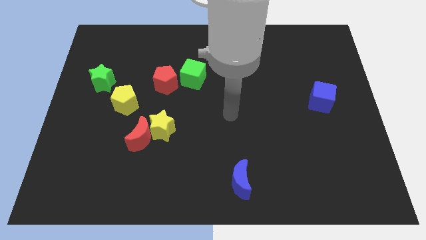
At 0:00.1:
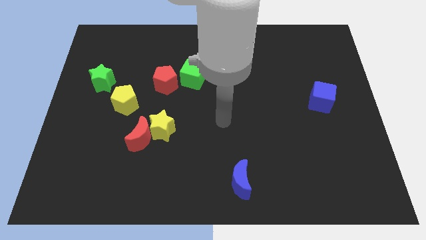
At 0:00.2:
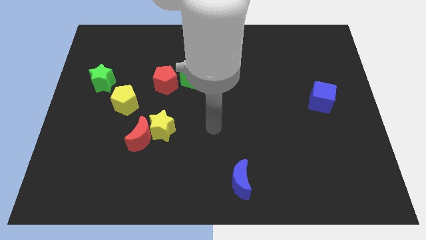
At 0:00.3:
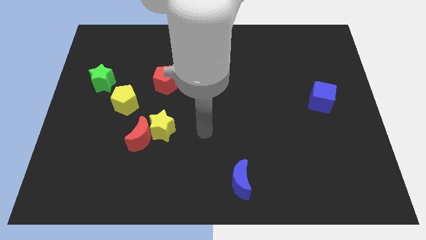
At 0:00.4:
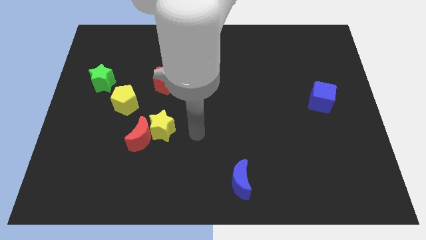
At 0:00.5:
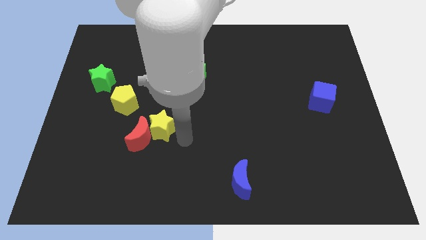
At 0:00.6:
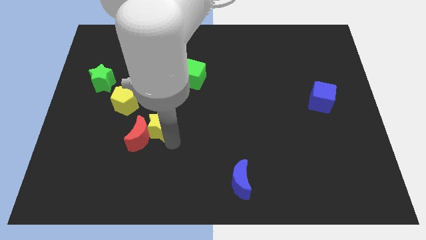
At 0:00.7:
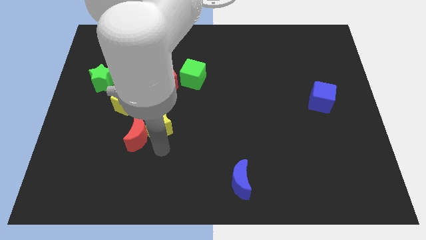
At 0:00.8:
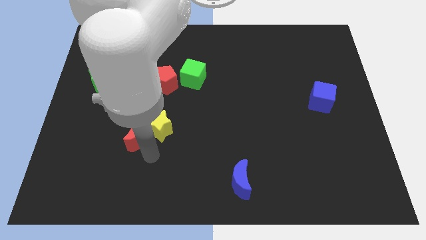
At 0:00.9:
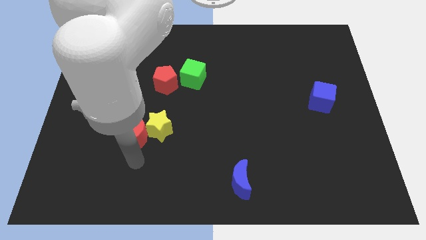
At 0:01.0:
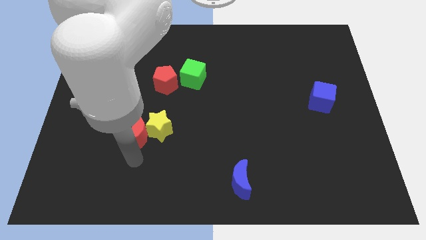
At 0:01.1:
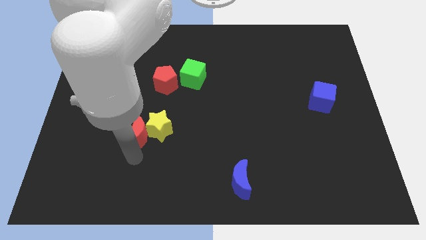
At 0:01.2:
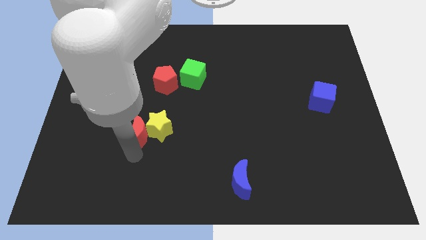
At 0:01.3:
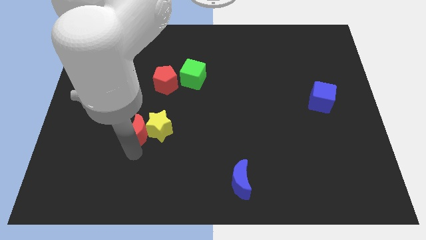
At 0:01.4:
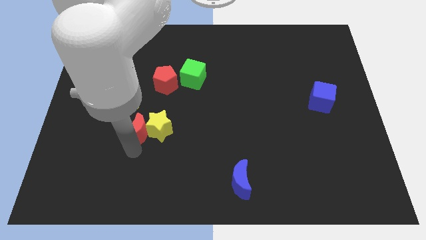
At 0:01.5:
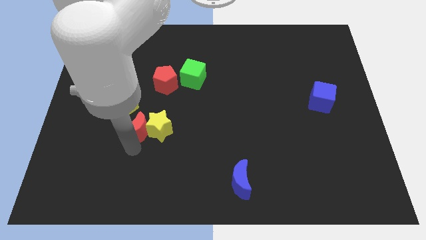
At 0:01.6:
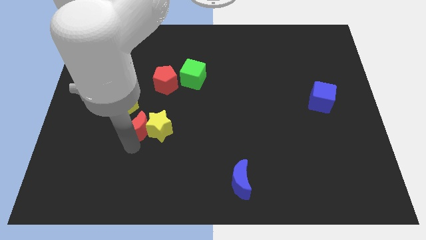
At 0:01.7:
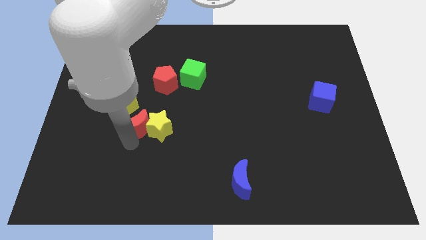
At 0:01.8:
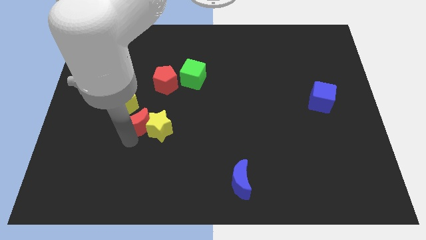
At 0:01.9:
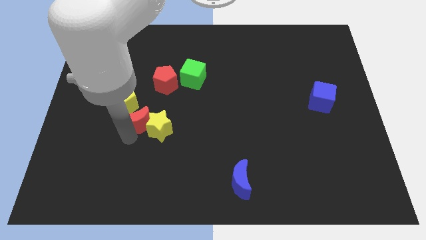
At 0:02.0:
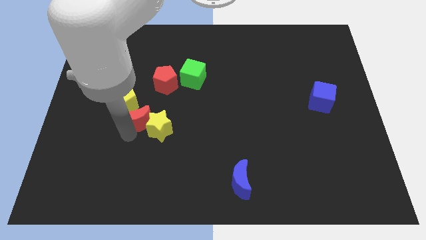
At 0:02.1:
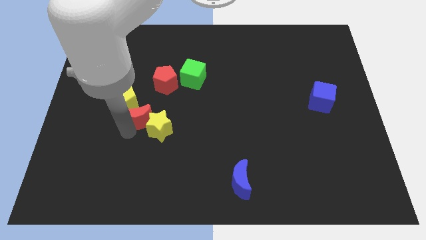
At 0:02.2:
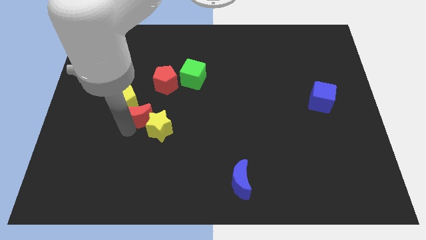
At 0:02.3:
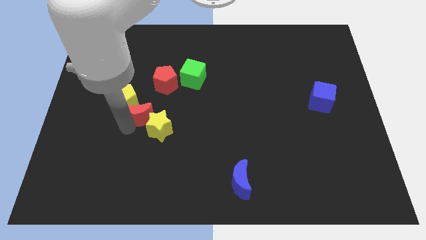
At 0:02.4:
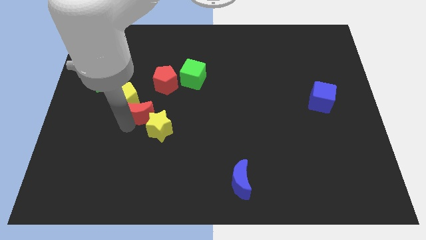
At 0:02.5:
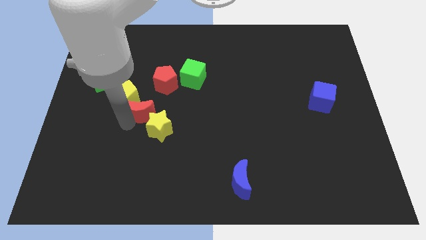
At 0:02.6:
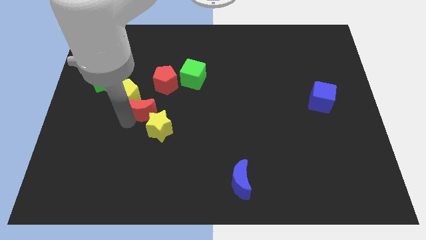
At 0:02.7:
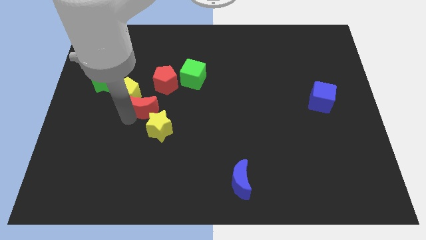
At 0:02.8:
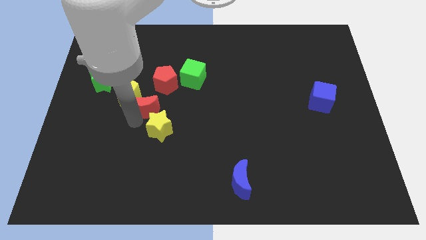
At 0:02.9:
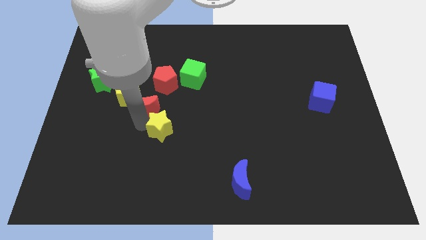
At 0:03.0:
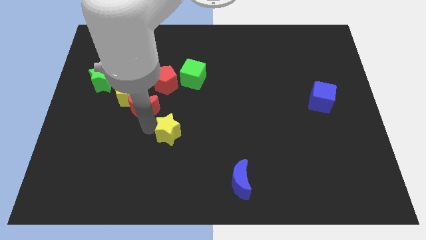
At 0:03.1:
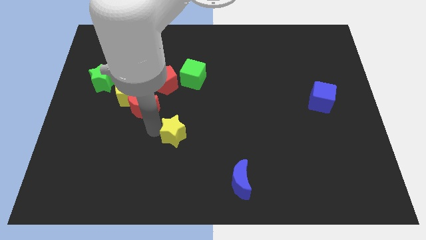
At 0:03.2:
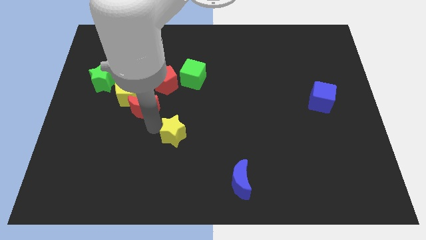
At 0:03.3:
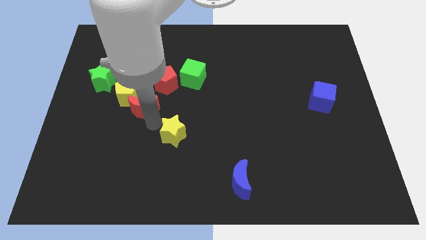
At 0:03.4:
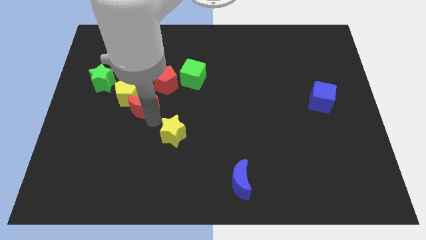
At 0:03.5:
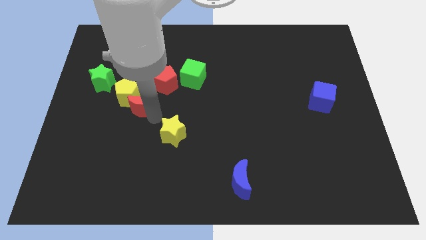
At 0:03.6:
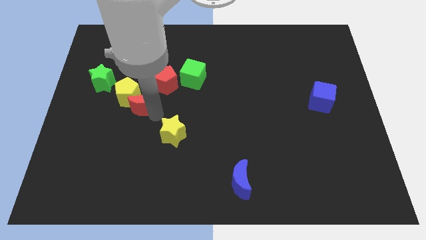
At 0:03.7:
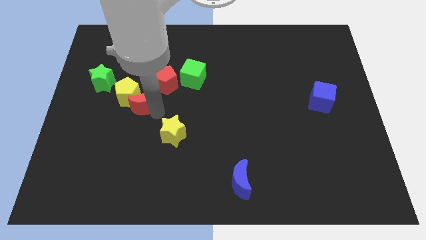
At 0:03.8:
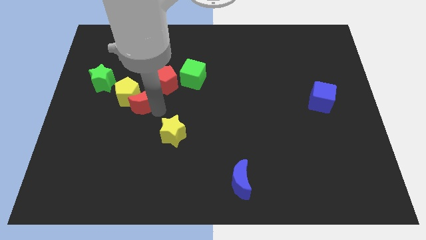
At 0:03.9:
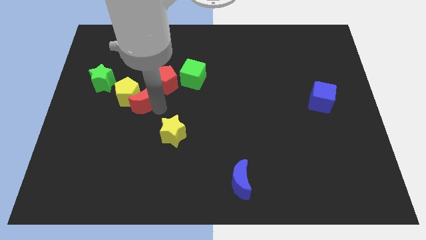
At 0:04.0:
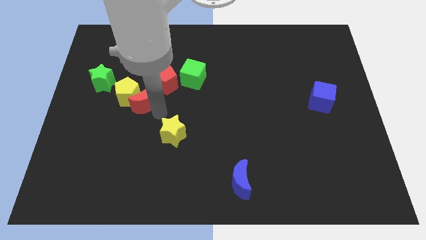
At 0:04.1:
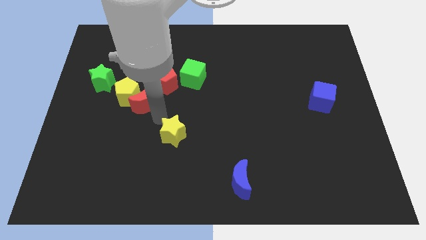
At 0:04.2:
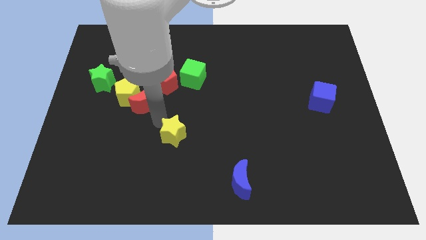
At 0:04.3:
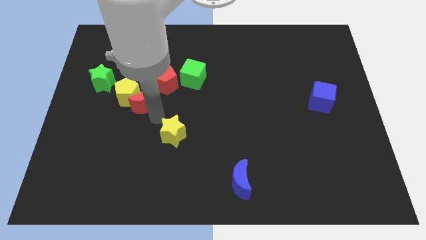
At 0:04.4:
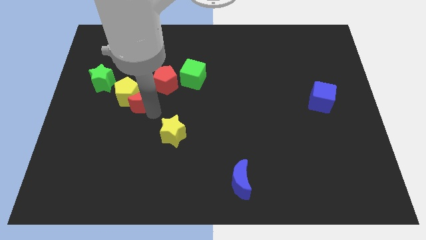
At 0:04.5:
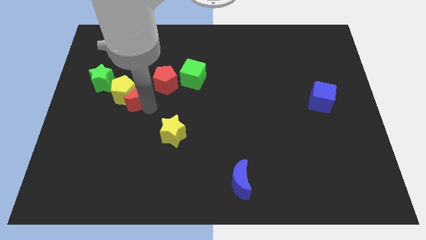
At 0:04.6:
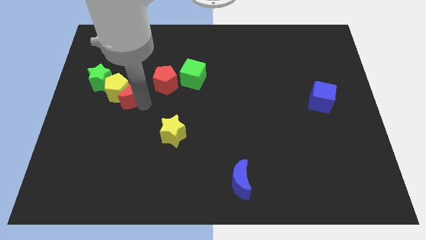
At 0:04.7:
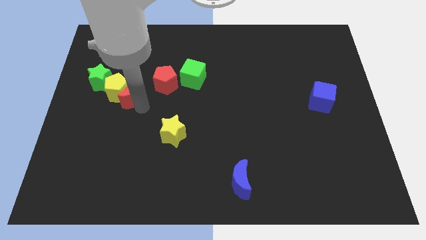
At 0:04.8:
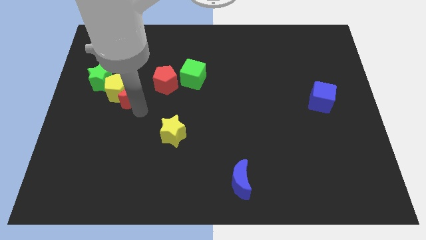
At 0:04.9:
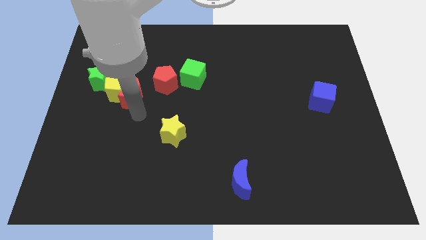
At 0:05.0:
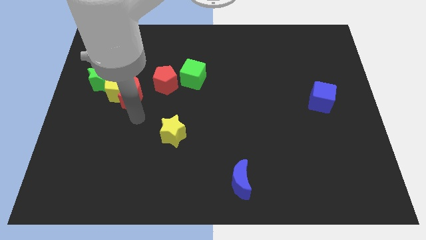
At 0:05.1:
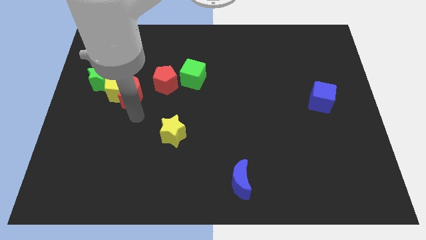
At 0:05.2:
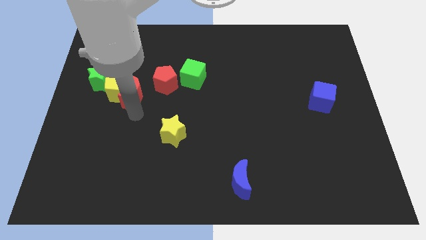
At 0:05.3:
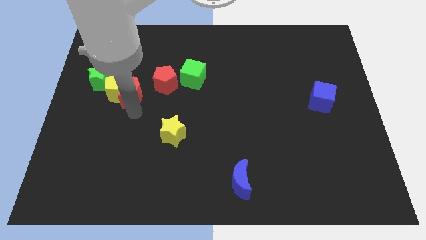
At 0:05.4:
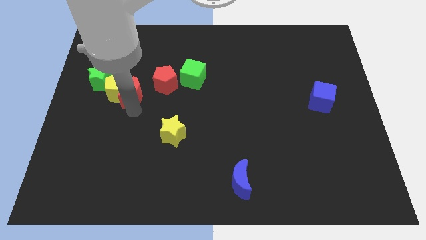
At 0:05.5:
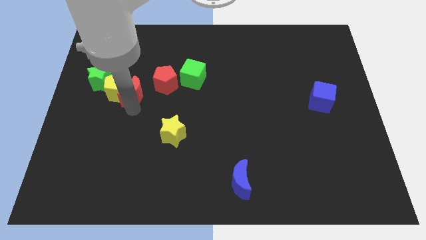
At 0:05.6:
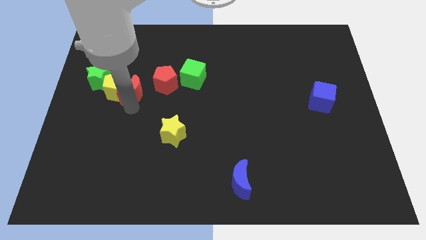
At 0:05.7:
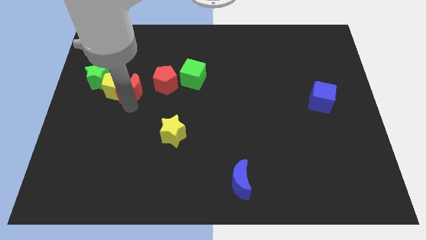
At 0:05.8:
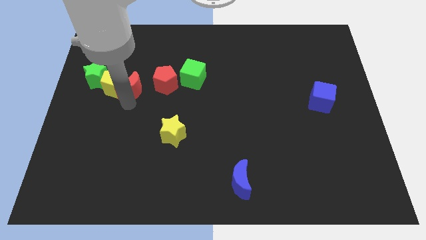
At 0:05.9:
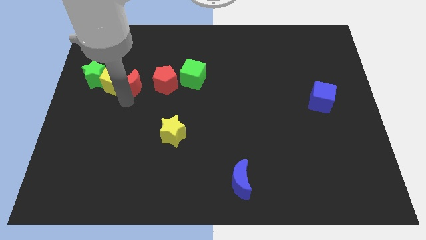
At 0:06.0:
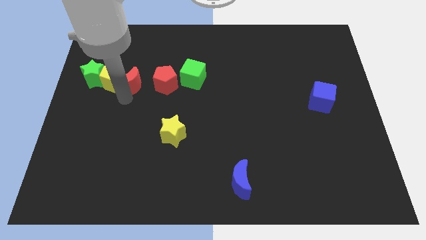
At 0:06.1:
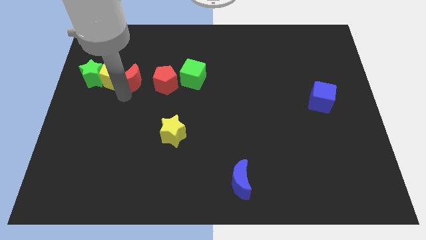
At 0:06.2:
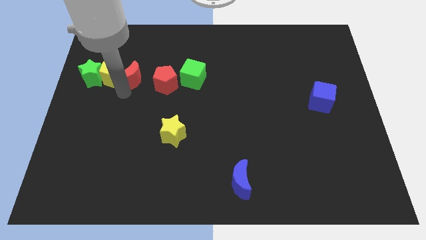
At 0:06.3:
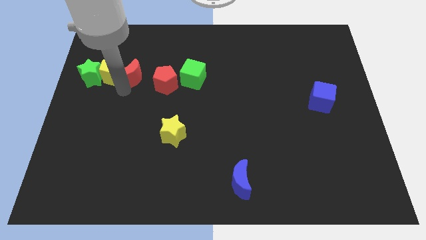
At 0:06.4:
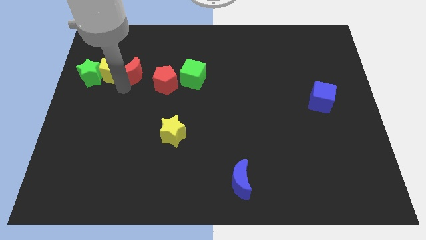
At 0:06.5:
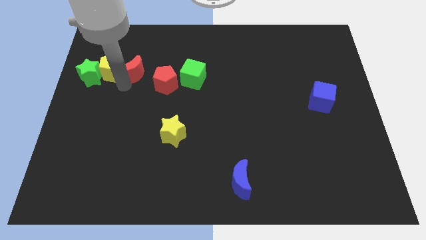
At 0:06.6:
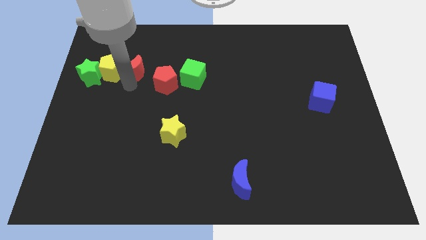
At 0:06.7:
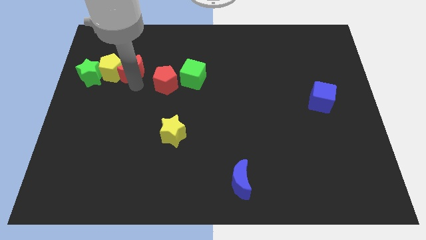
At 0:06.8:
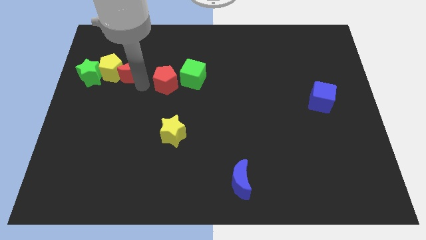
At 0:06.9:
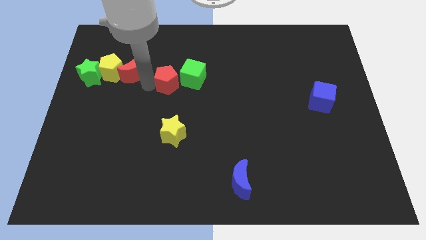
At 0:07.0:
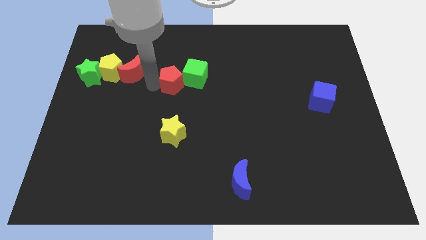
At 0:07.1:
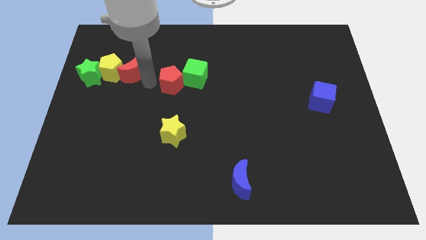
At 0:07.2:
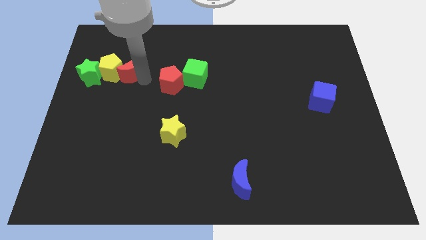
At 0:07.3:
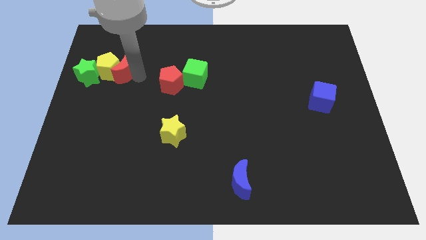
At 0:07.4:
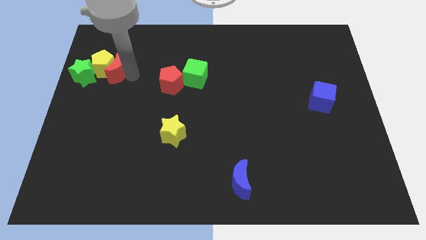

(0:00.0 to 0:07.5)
push the red moon diagonally up and to the right of the green star
